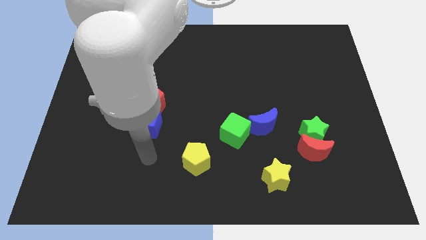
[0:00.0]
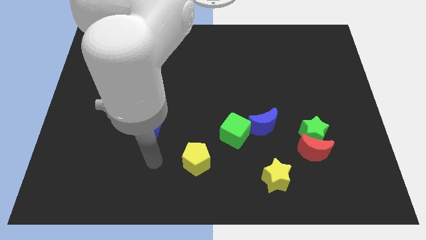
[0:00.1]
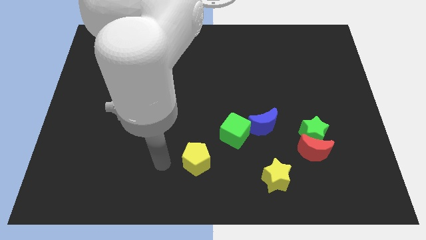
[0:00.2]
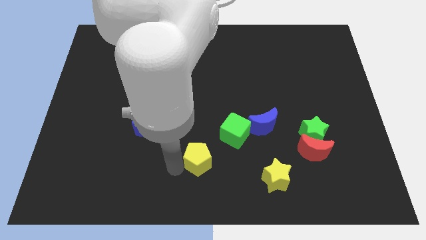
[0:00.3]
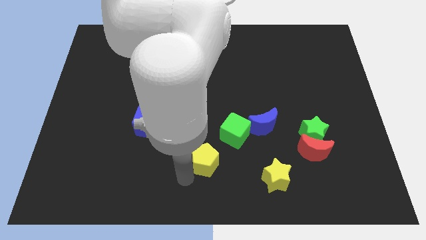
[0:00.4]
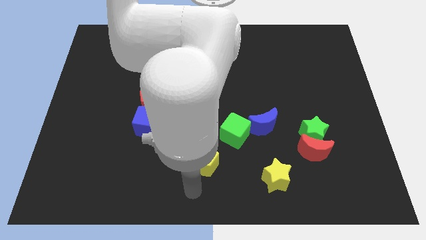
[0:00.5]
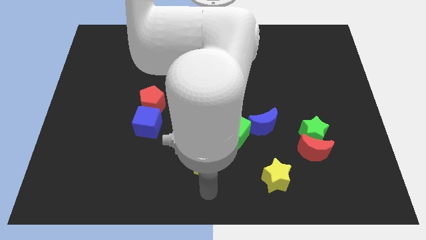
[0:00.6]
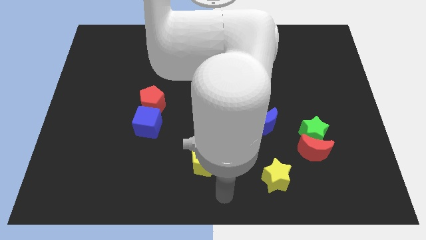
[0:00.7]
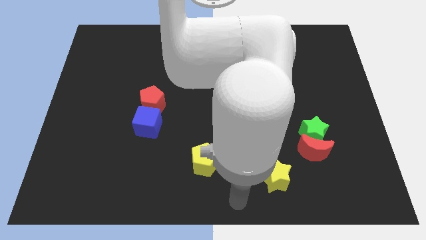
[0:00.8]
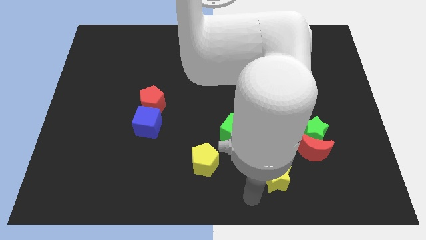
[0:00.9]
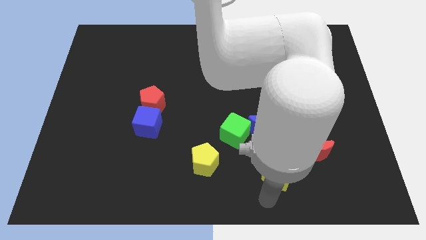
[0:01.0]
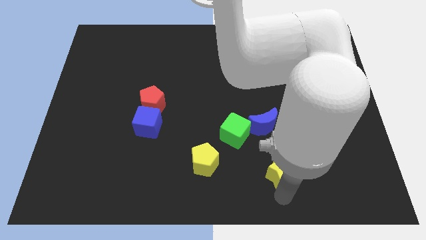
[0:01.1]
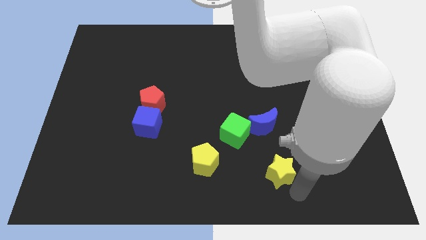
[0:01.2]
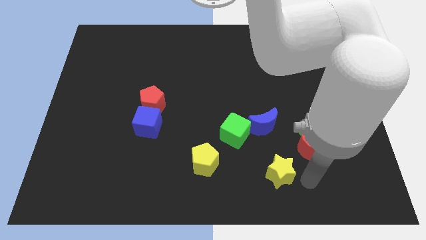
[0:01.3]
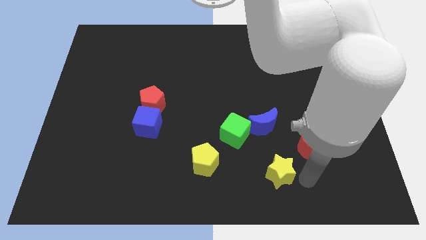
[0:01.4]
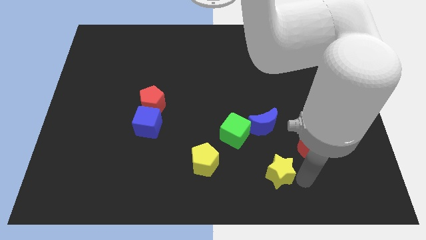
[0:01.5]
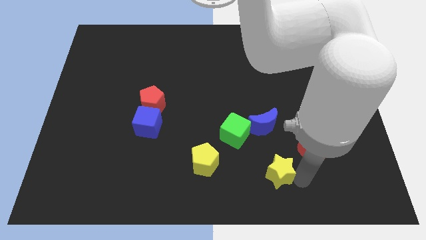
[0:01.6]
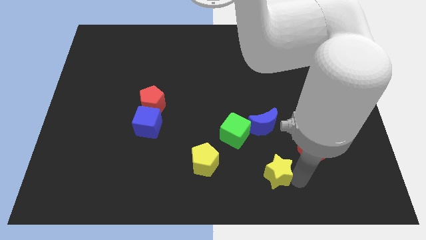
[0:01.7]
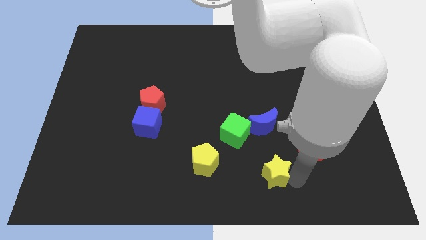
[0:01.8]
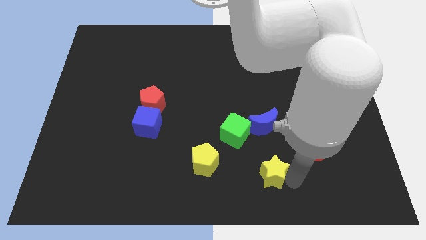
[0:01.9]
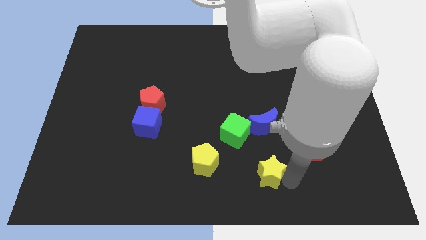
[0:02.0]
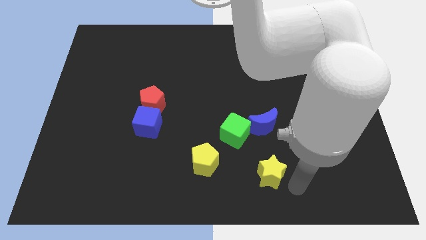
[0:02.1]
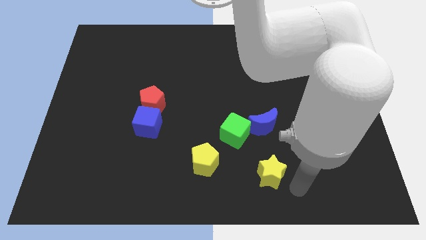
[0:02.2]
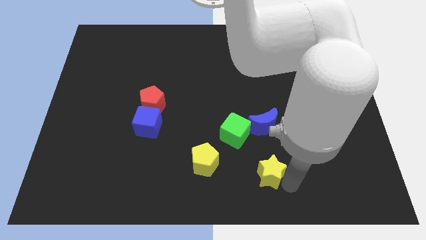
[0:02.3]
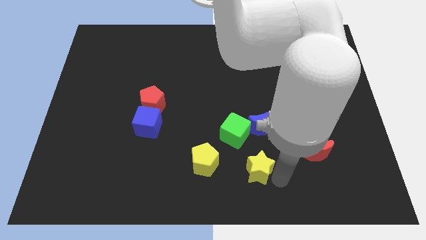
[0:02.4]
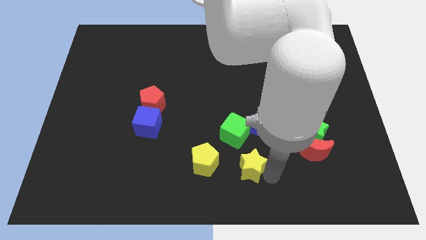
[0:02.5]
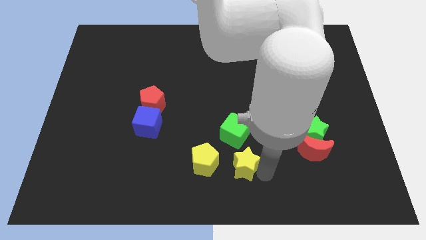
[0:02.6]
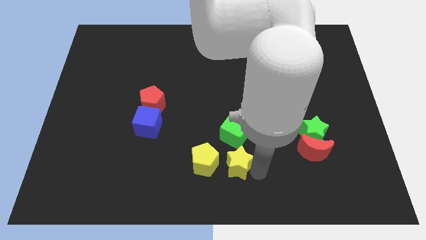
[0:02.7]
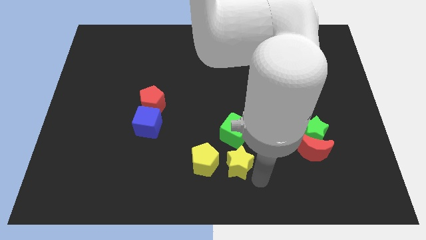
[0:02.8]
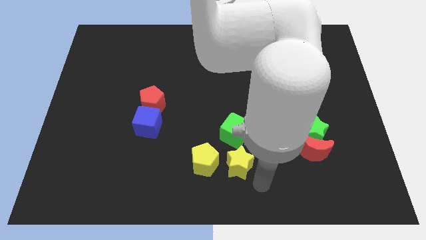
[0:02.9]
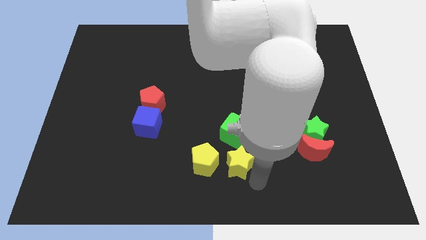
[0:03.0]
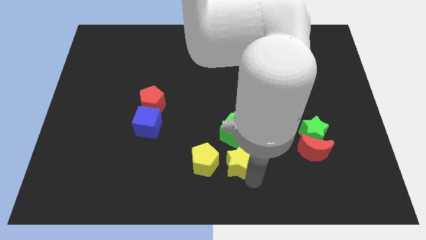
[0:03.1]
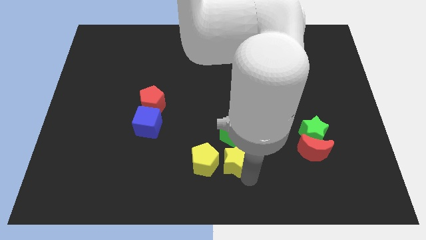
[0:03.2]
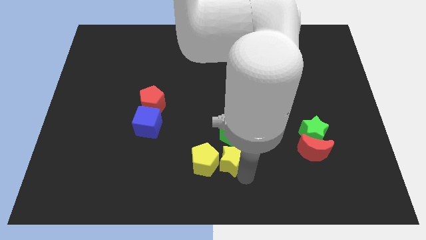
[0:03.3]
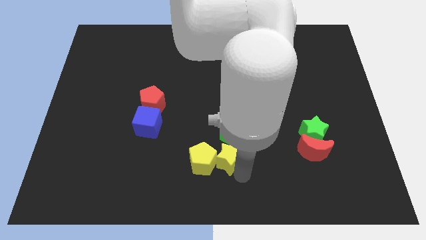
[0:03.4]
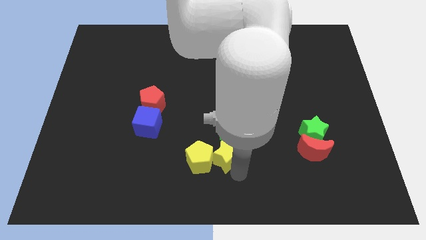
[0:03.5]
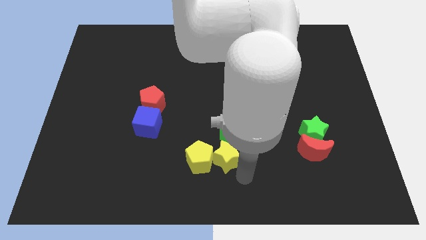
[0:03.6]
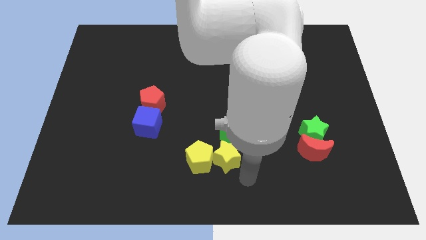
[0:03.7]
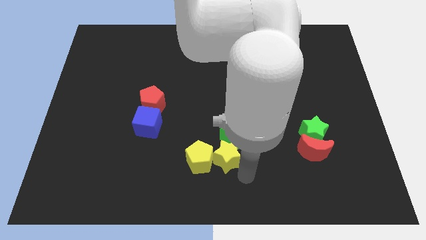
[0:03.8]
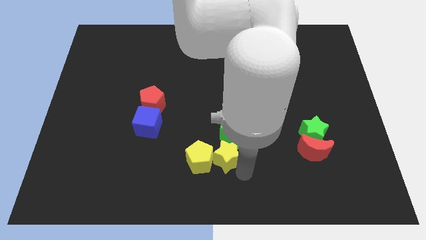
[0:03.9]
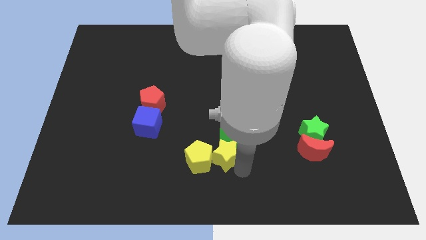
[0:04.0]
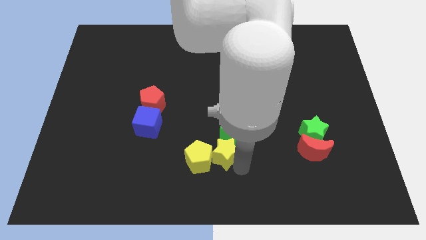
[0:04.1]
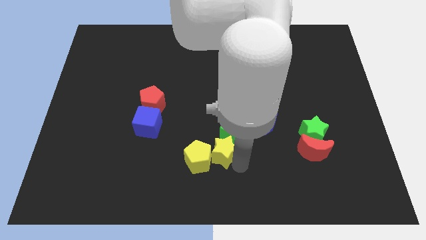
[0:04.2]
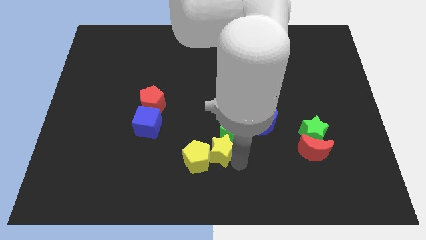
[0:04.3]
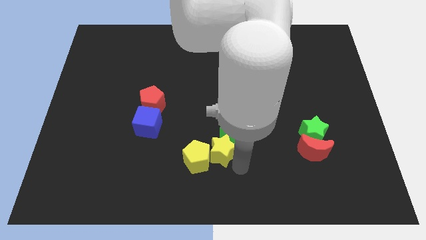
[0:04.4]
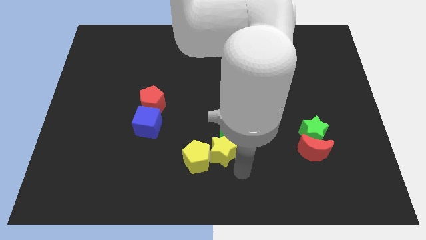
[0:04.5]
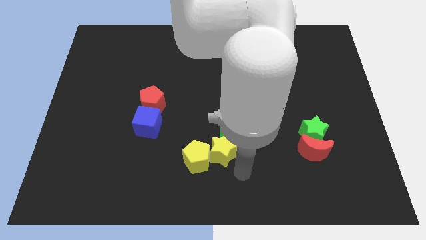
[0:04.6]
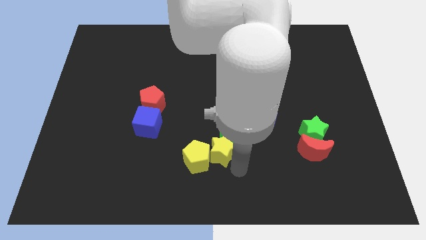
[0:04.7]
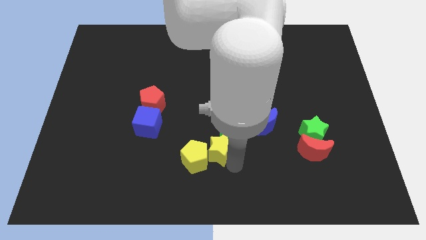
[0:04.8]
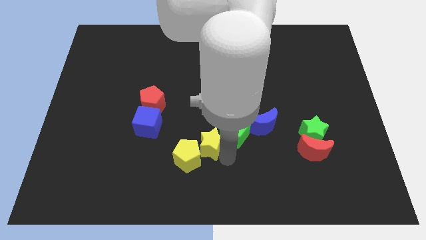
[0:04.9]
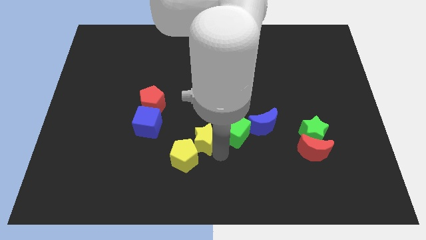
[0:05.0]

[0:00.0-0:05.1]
push the yellow star to the right of the blue cube

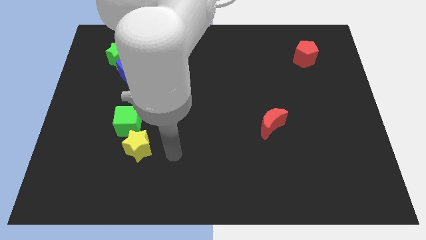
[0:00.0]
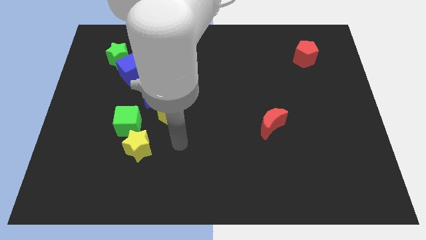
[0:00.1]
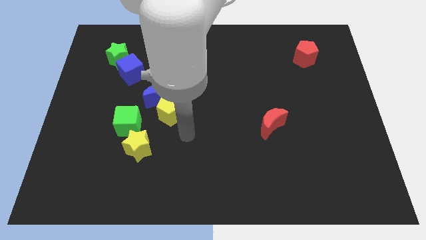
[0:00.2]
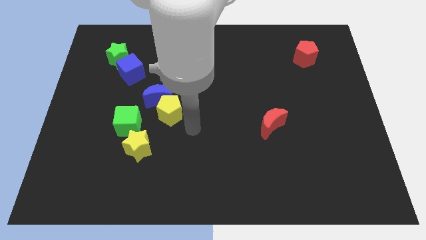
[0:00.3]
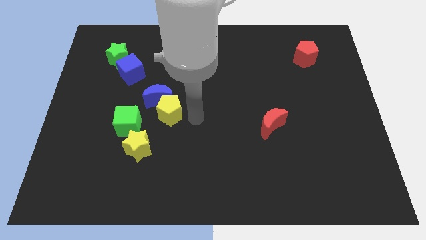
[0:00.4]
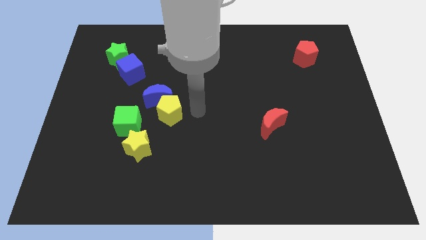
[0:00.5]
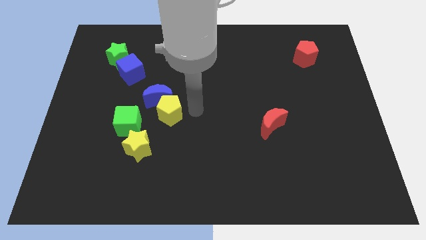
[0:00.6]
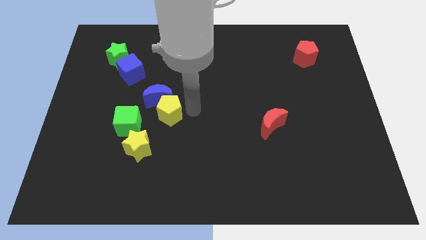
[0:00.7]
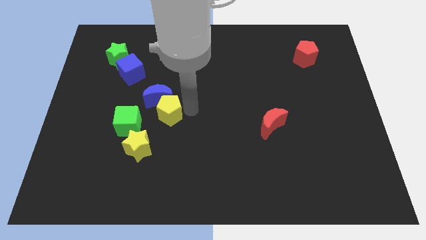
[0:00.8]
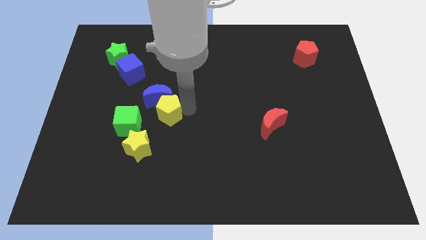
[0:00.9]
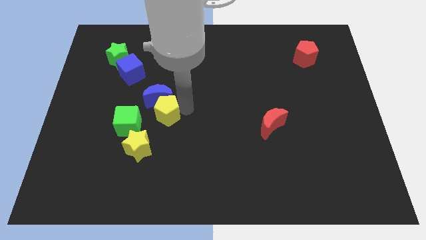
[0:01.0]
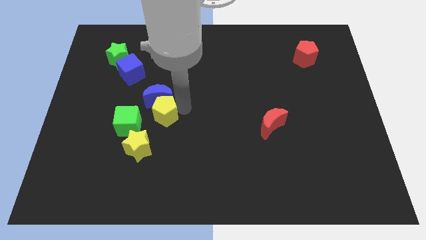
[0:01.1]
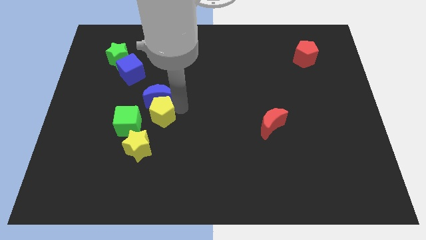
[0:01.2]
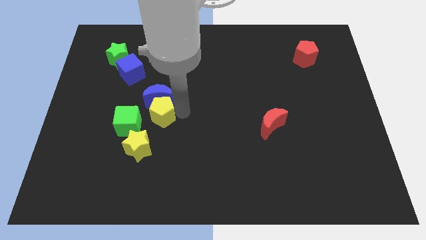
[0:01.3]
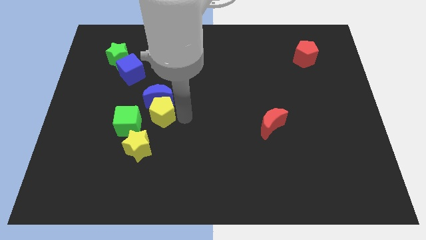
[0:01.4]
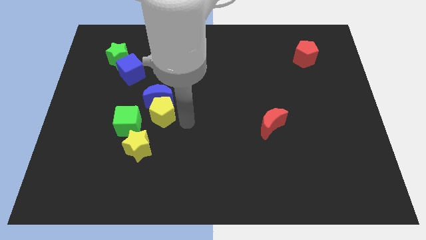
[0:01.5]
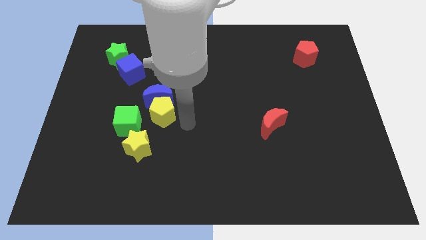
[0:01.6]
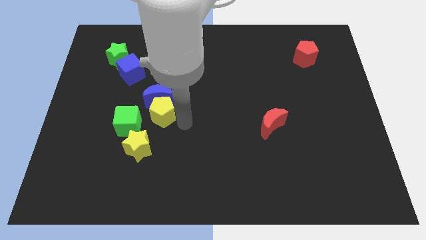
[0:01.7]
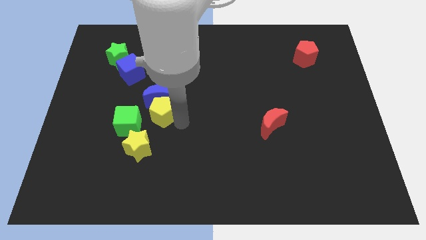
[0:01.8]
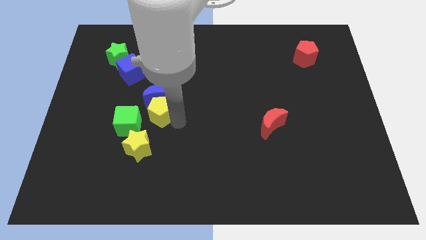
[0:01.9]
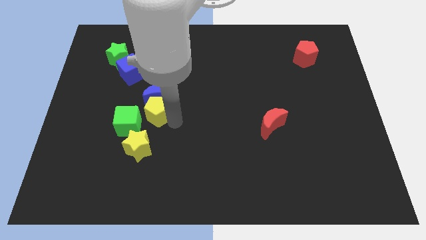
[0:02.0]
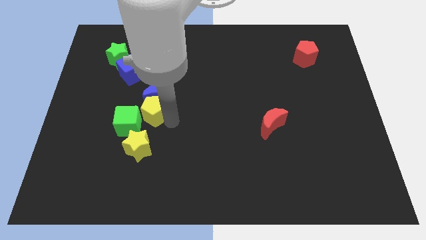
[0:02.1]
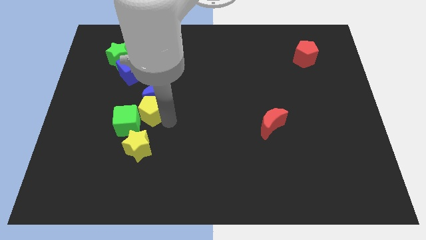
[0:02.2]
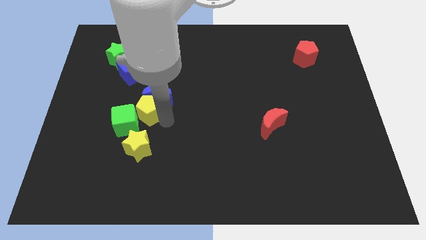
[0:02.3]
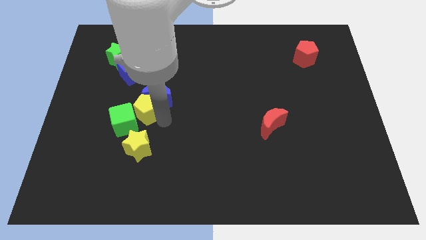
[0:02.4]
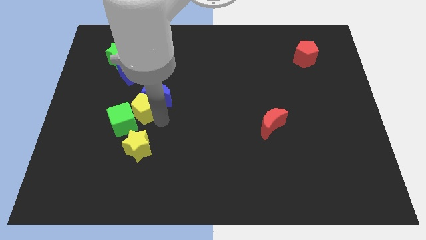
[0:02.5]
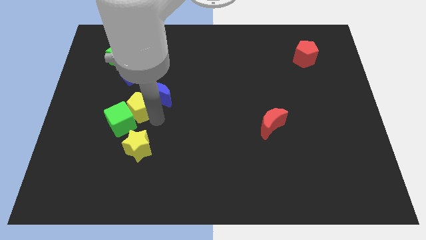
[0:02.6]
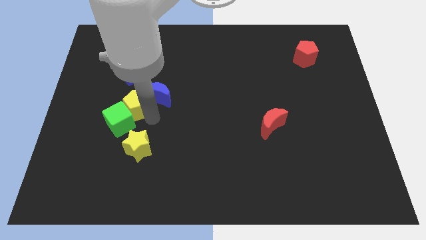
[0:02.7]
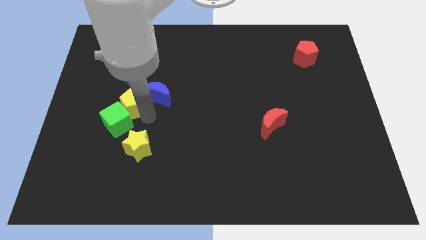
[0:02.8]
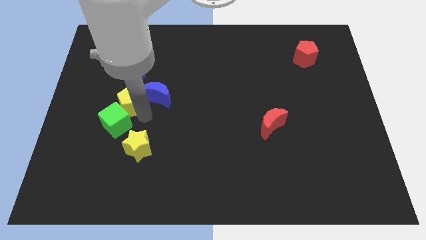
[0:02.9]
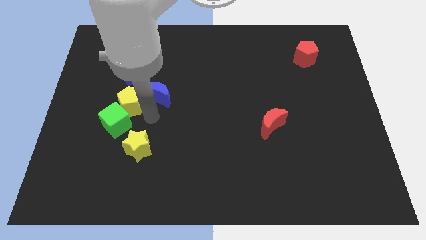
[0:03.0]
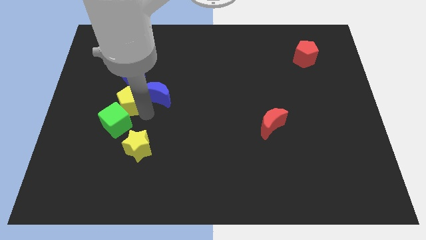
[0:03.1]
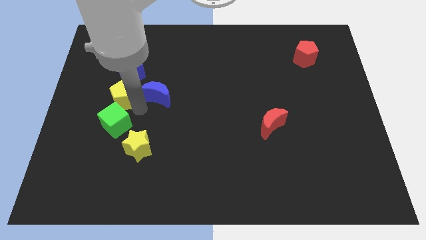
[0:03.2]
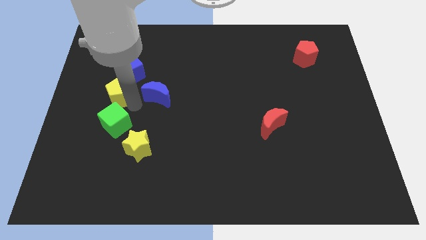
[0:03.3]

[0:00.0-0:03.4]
slide the yellow pentagon to the bottom left side of the blue cube
